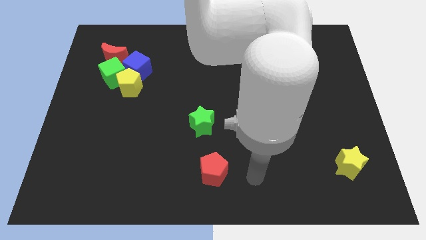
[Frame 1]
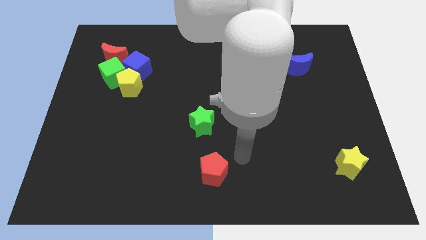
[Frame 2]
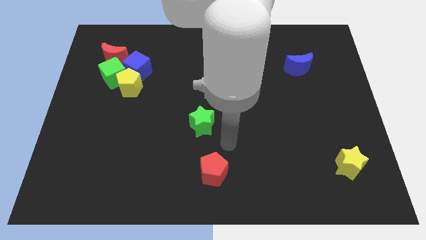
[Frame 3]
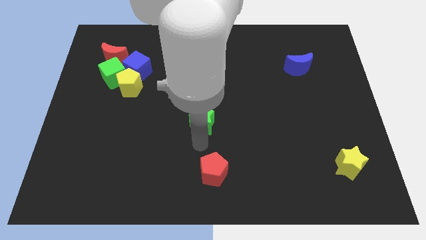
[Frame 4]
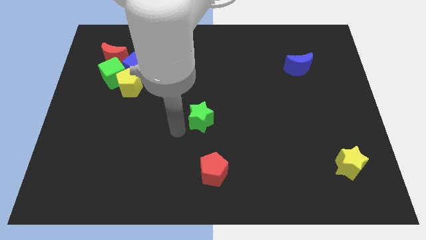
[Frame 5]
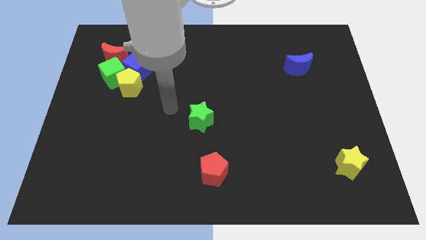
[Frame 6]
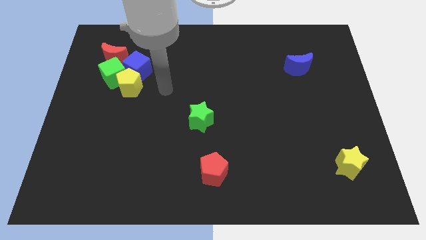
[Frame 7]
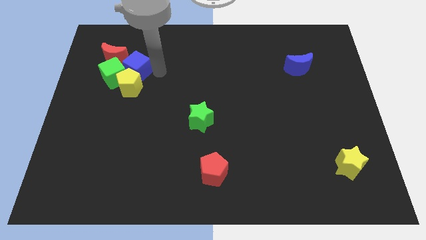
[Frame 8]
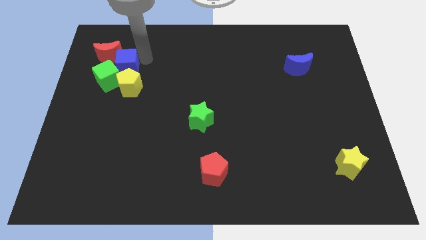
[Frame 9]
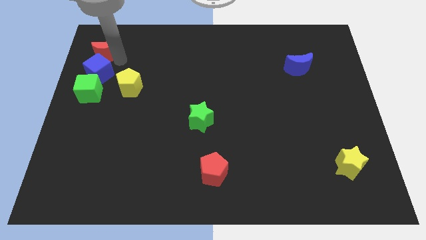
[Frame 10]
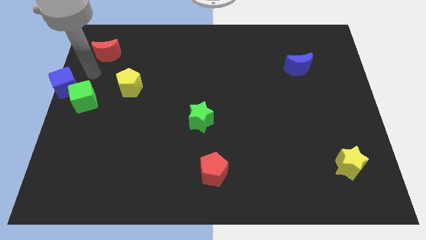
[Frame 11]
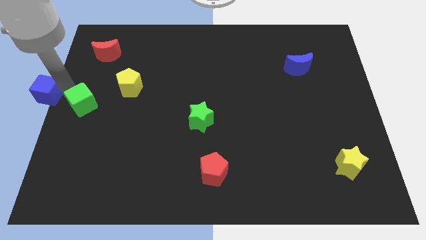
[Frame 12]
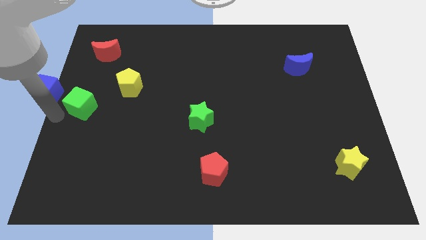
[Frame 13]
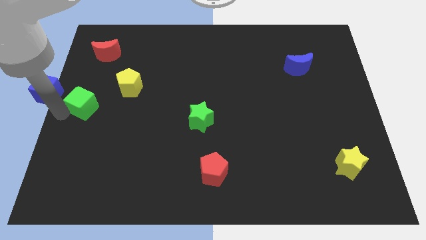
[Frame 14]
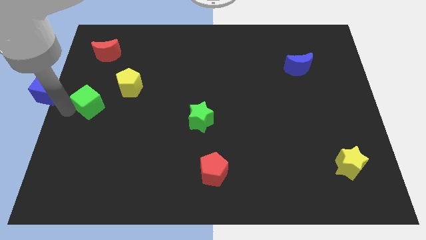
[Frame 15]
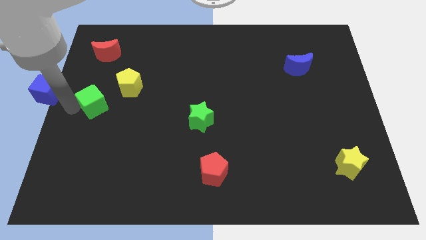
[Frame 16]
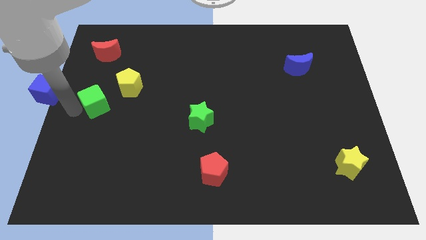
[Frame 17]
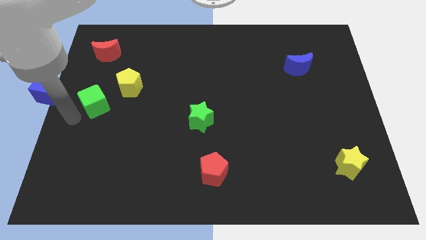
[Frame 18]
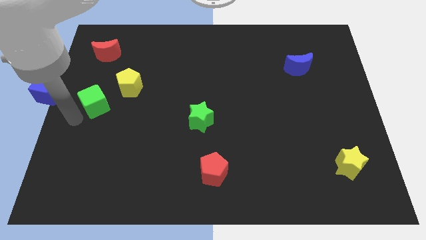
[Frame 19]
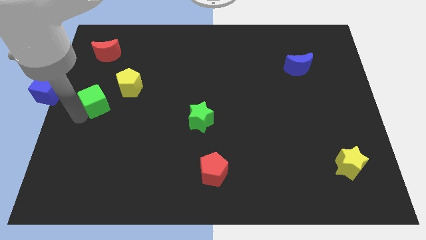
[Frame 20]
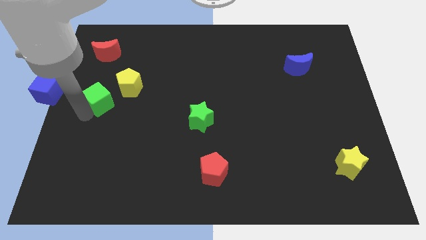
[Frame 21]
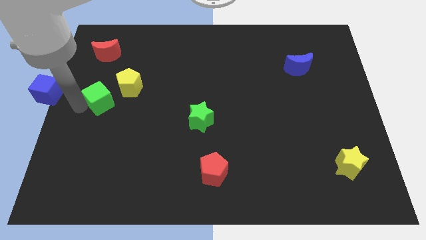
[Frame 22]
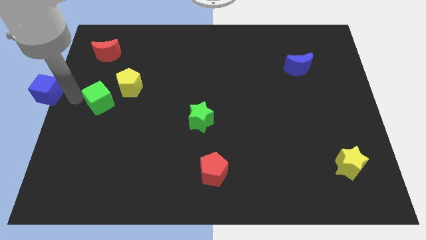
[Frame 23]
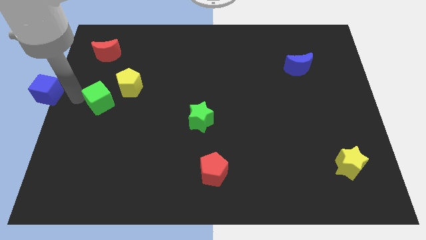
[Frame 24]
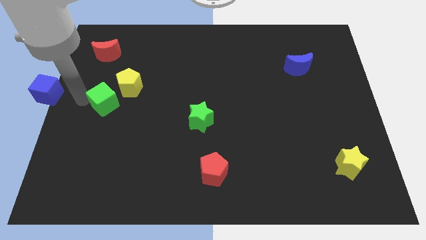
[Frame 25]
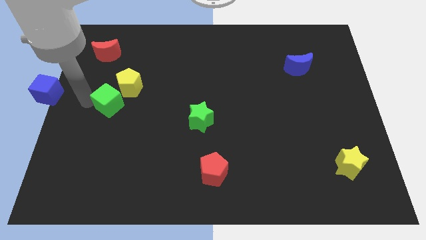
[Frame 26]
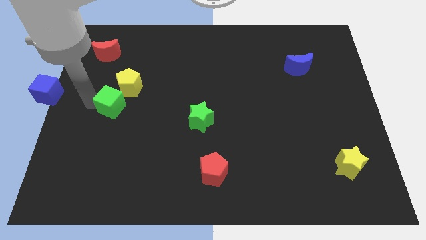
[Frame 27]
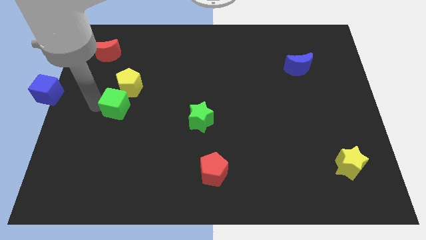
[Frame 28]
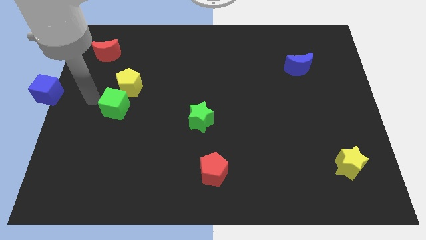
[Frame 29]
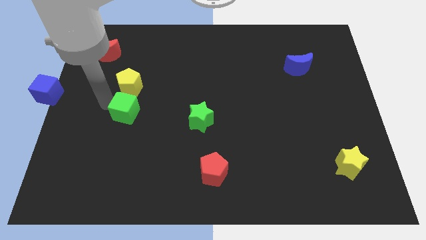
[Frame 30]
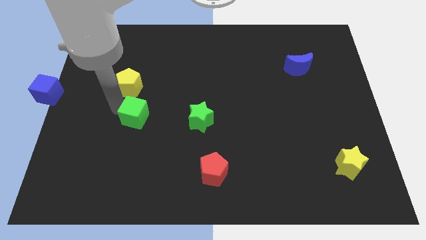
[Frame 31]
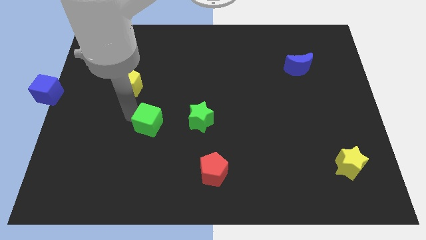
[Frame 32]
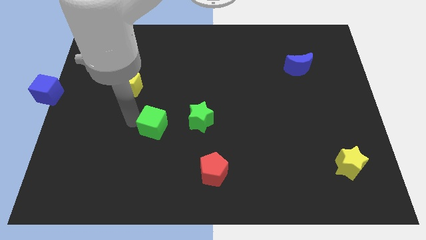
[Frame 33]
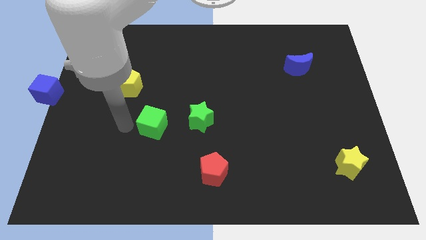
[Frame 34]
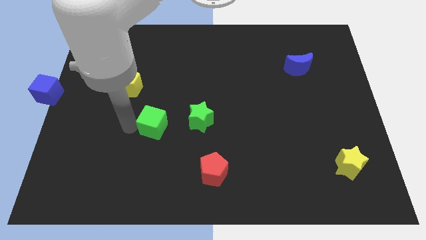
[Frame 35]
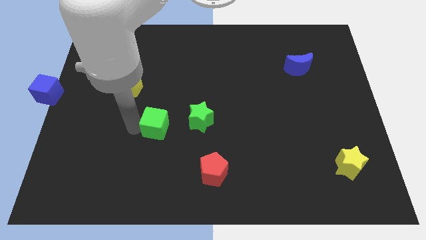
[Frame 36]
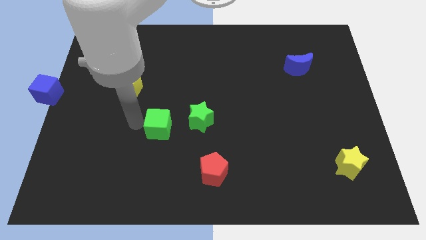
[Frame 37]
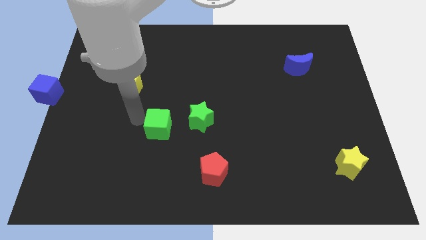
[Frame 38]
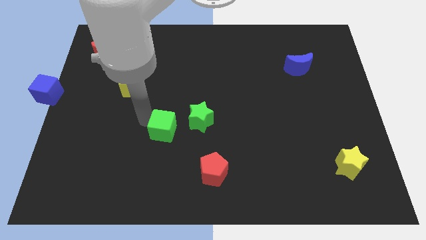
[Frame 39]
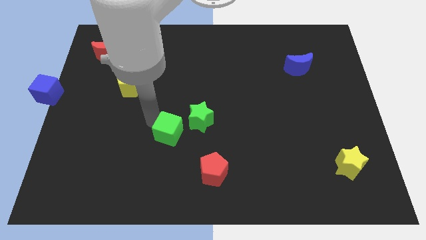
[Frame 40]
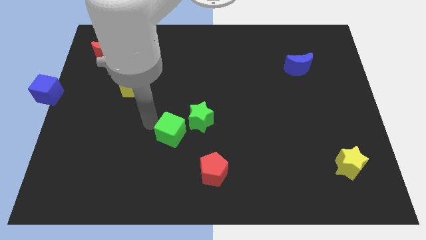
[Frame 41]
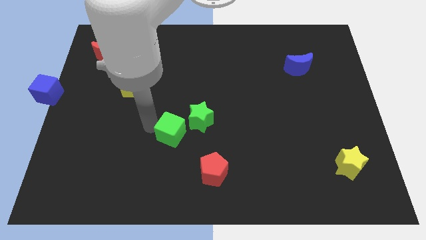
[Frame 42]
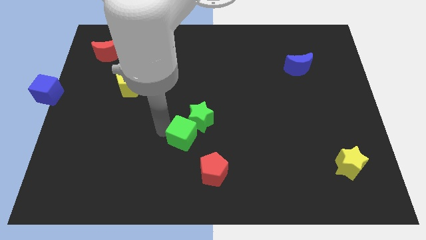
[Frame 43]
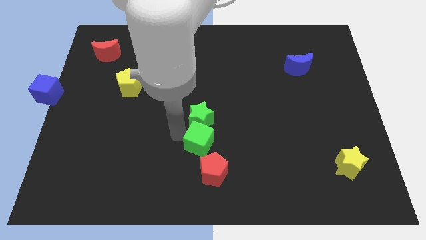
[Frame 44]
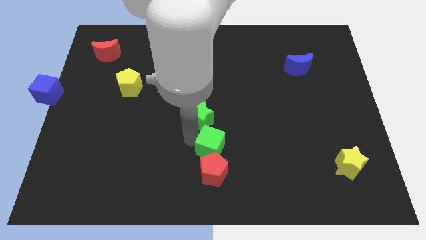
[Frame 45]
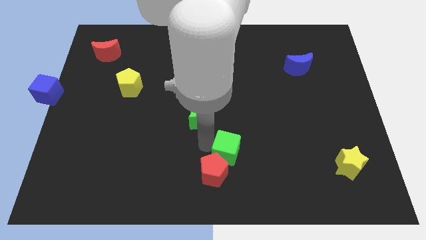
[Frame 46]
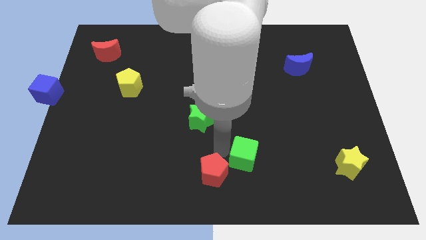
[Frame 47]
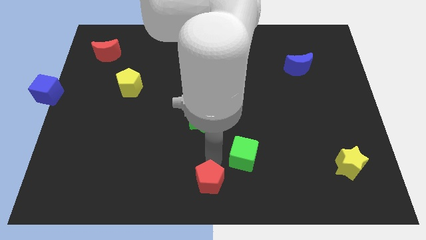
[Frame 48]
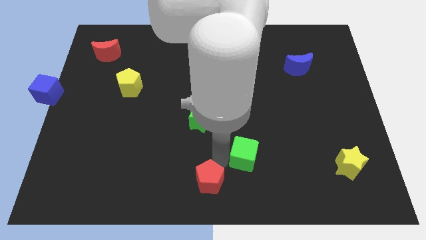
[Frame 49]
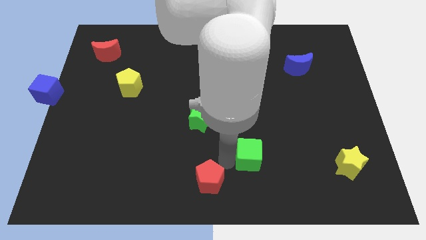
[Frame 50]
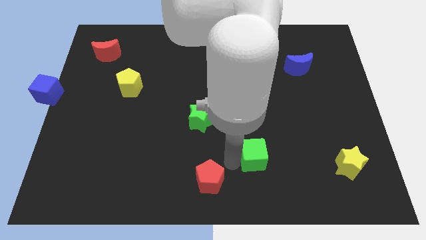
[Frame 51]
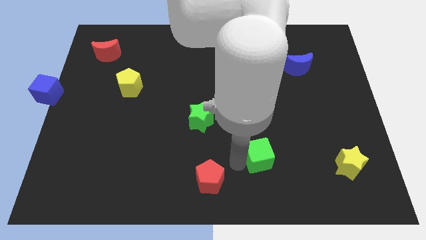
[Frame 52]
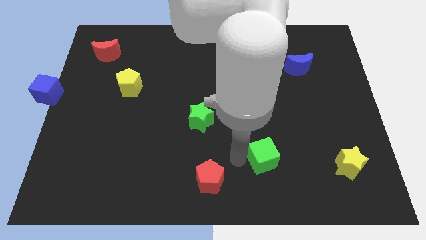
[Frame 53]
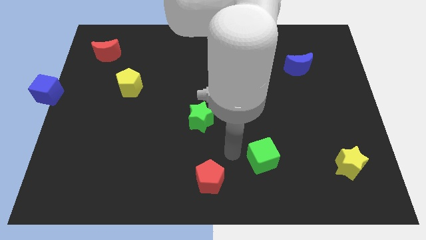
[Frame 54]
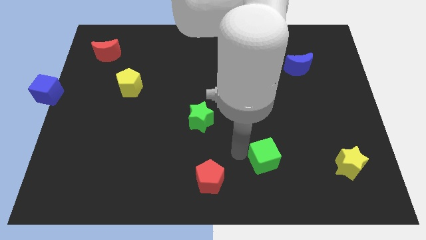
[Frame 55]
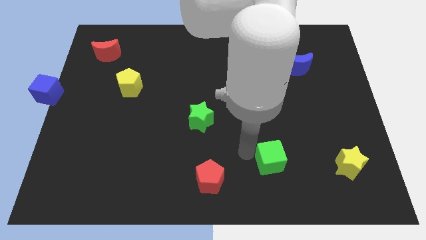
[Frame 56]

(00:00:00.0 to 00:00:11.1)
push the green cube just left of the yellow star

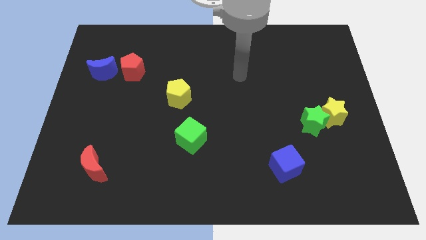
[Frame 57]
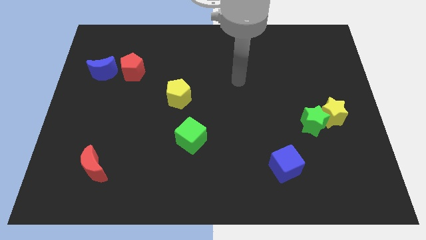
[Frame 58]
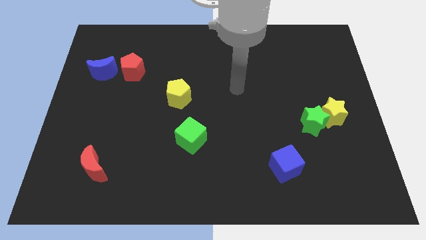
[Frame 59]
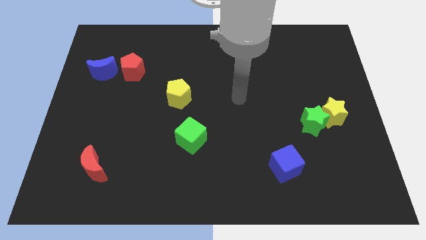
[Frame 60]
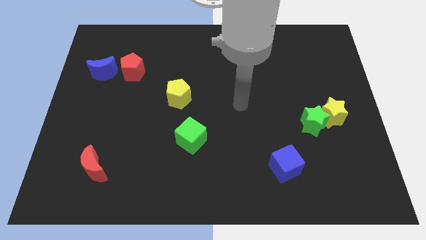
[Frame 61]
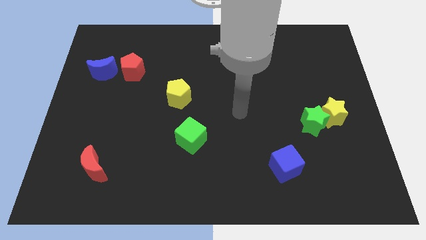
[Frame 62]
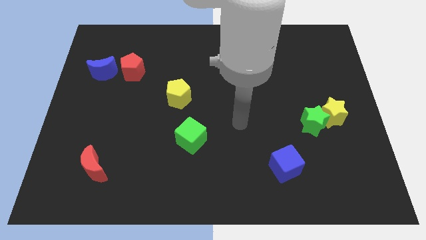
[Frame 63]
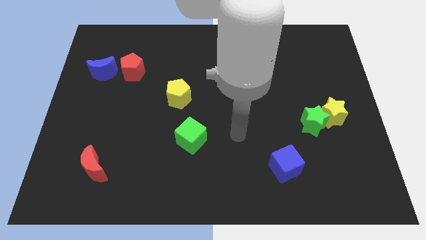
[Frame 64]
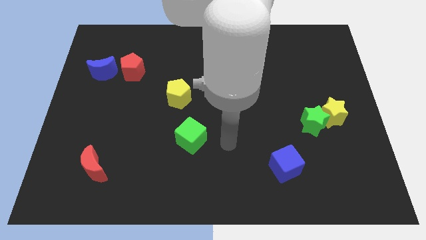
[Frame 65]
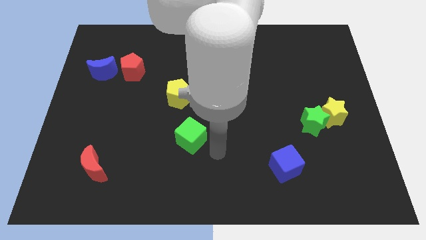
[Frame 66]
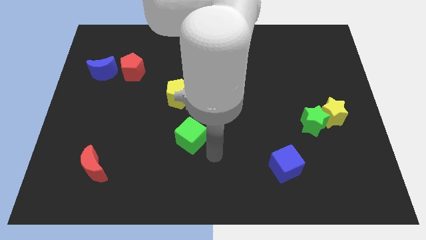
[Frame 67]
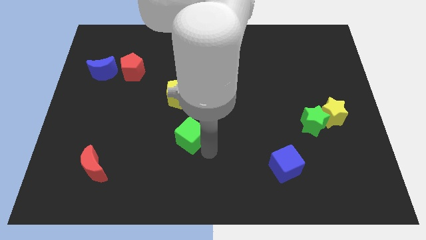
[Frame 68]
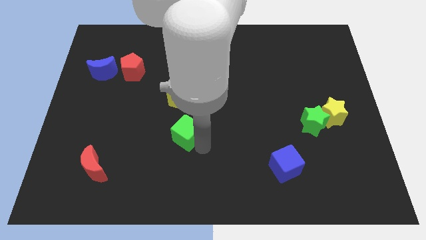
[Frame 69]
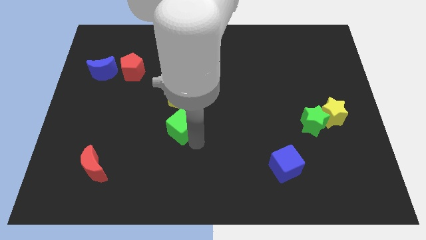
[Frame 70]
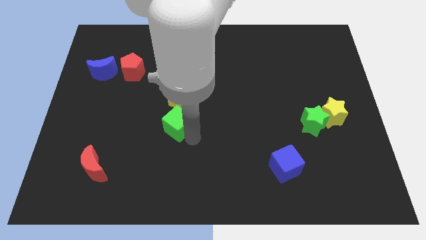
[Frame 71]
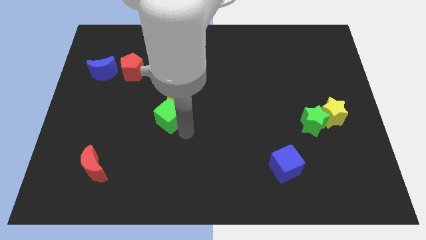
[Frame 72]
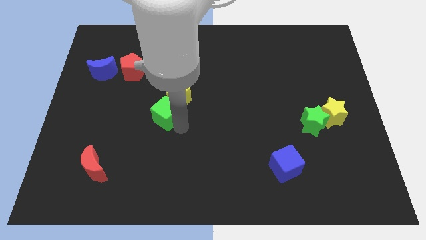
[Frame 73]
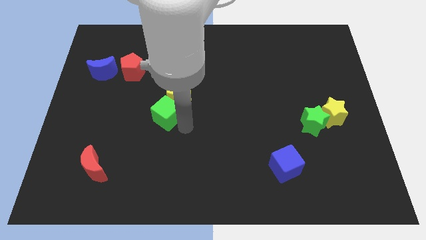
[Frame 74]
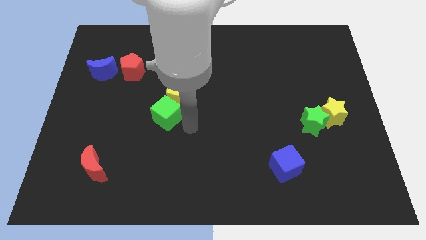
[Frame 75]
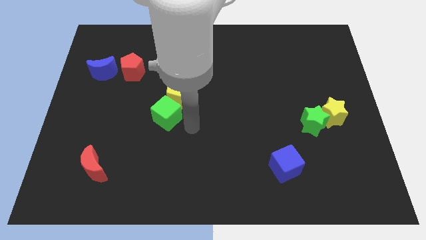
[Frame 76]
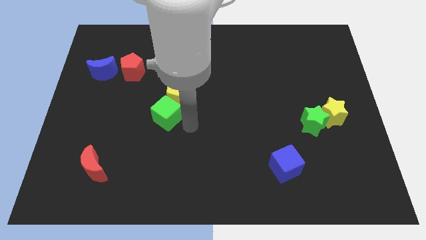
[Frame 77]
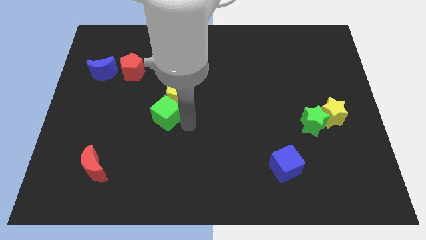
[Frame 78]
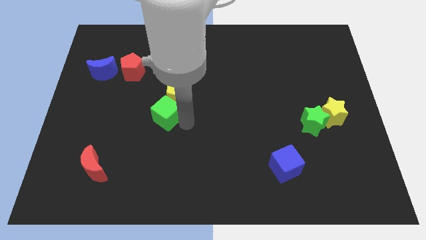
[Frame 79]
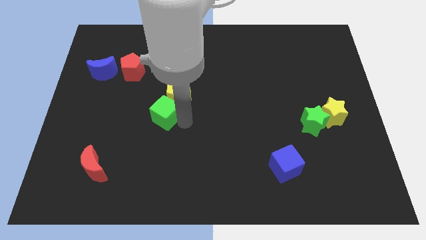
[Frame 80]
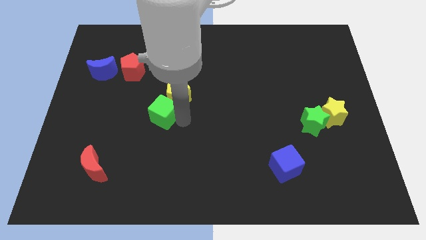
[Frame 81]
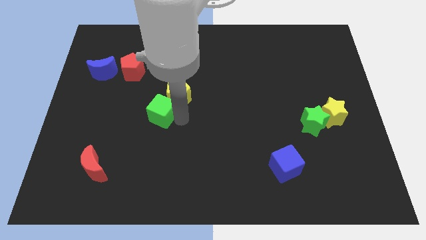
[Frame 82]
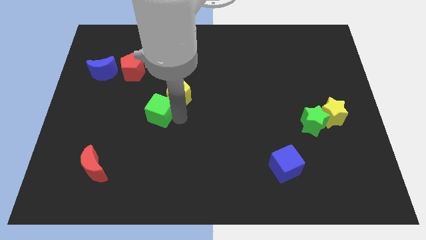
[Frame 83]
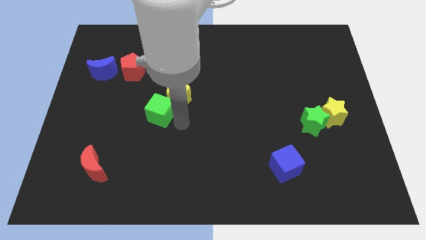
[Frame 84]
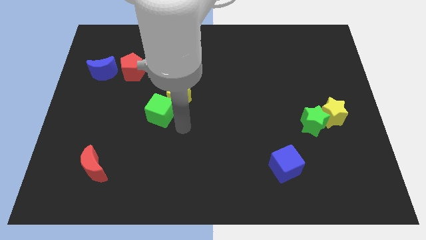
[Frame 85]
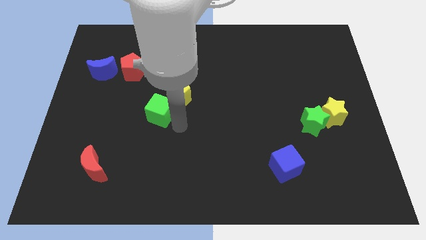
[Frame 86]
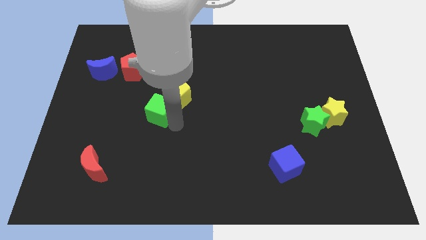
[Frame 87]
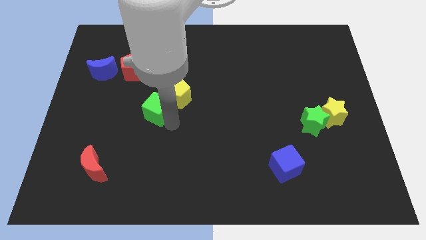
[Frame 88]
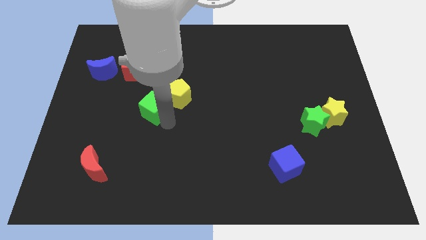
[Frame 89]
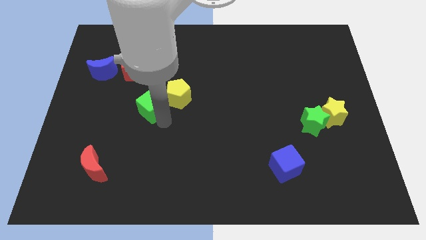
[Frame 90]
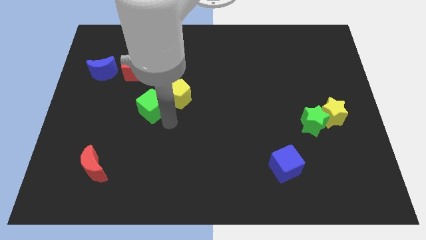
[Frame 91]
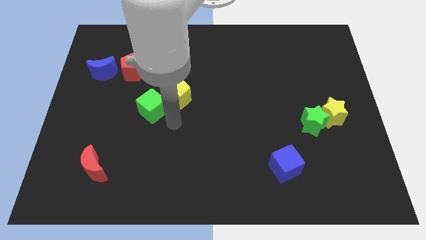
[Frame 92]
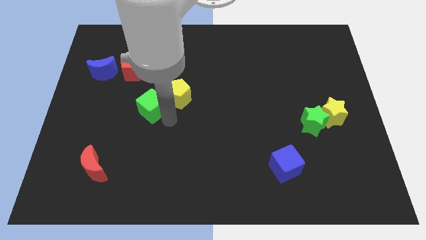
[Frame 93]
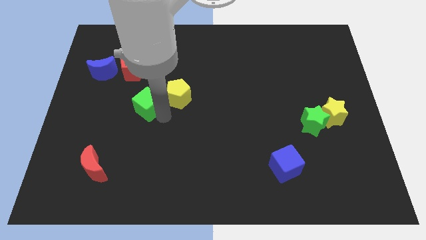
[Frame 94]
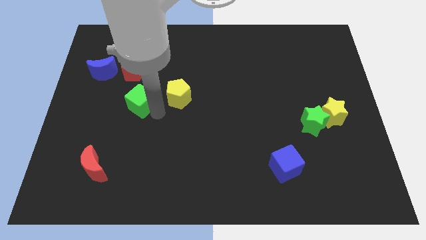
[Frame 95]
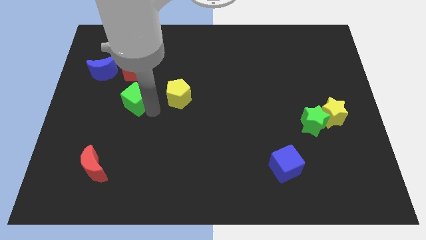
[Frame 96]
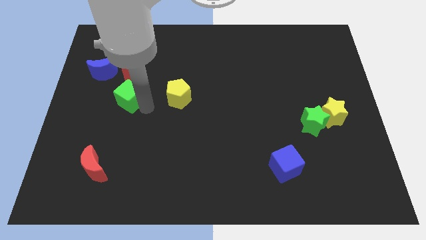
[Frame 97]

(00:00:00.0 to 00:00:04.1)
push the green cube to the bottom right side of the blue moon
